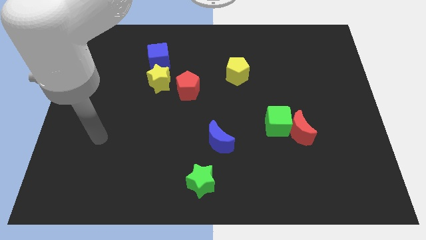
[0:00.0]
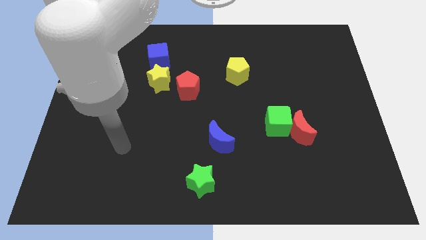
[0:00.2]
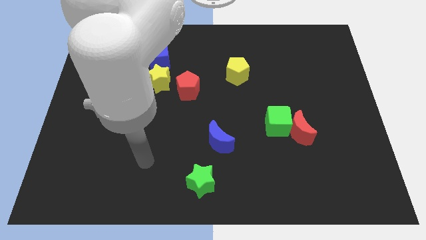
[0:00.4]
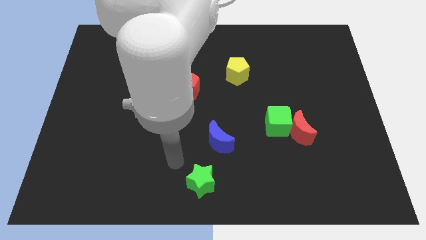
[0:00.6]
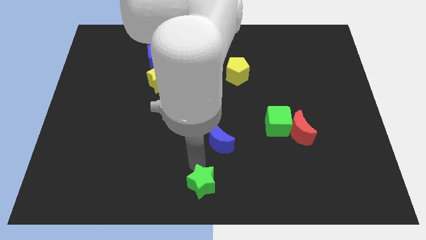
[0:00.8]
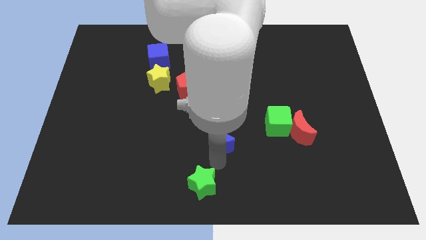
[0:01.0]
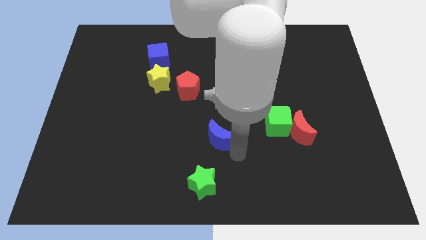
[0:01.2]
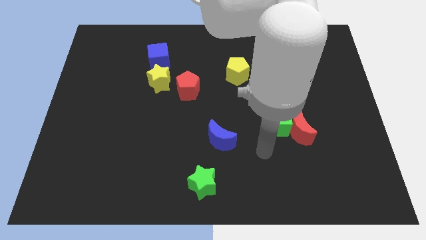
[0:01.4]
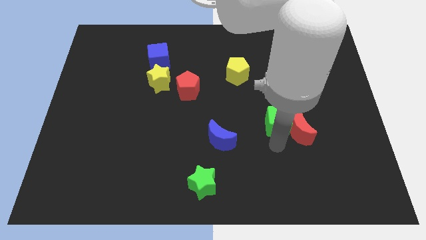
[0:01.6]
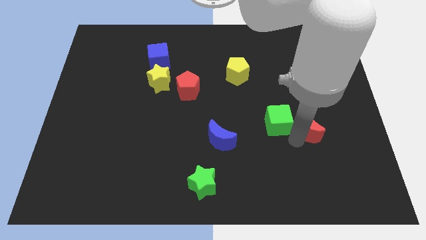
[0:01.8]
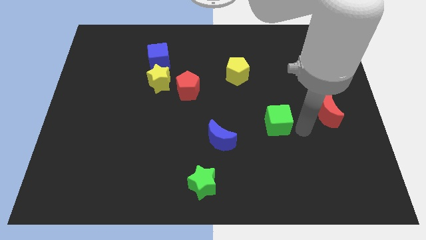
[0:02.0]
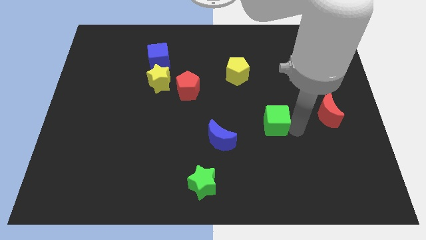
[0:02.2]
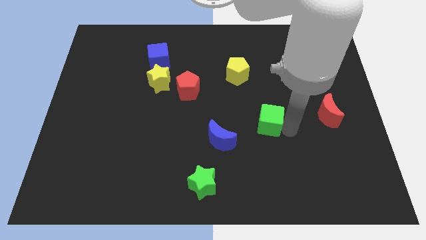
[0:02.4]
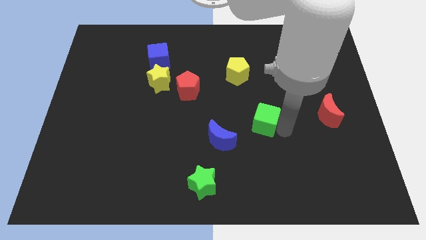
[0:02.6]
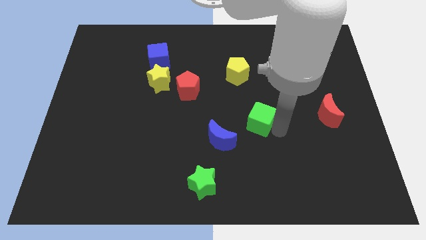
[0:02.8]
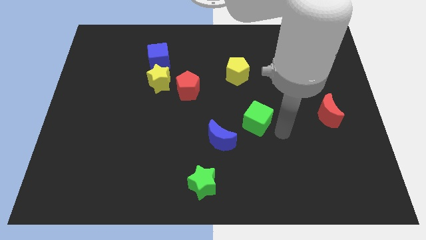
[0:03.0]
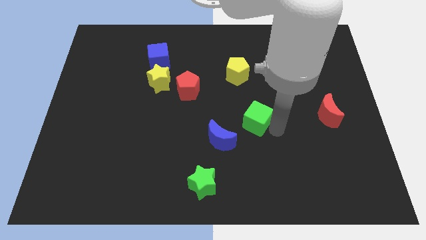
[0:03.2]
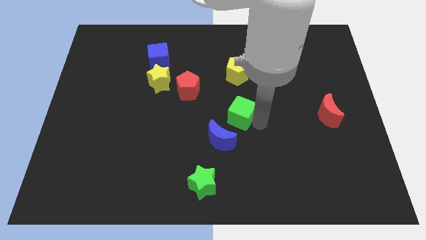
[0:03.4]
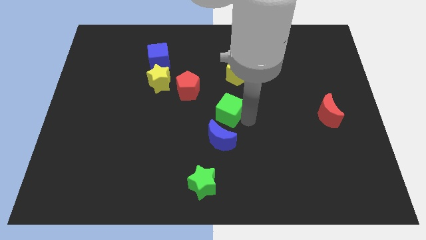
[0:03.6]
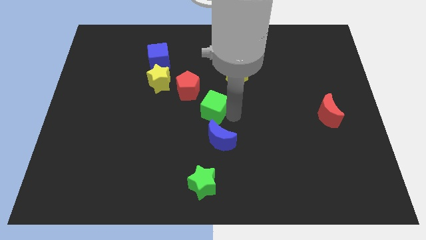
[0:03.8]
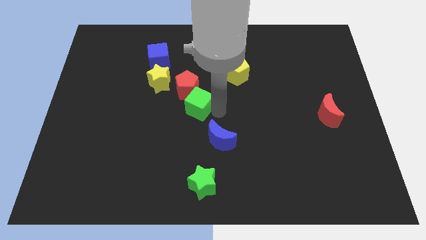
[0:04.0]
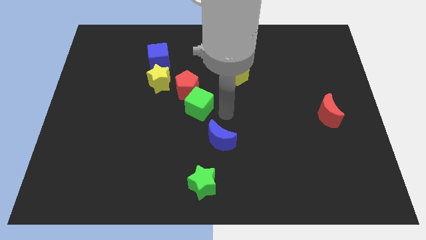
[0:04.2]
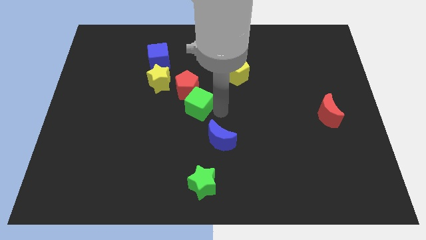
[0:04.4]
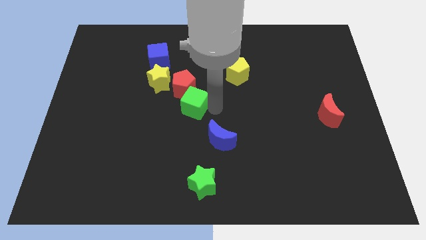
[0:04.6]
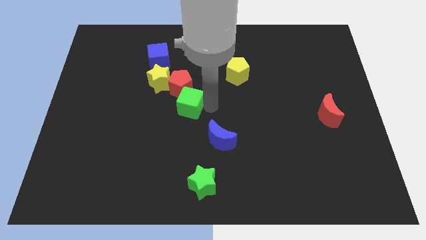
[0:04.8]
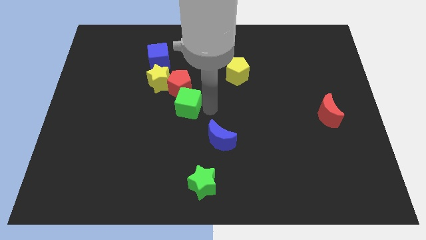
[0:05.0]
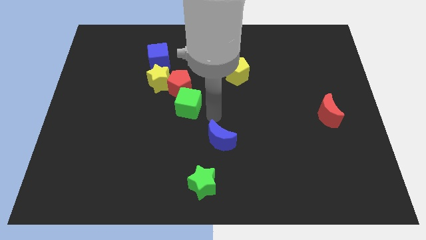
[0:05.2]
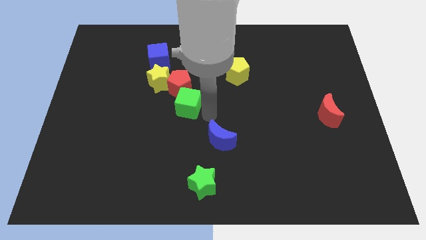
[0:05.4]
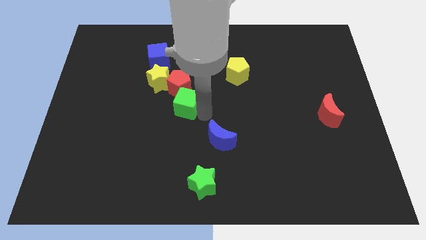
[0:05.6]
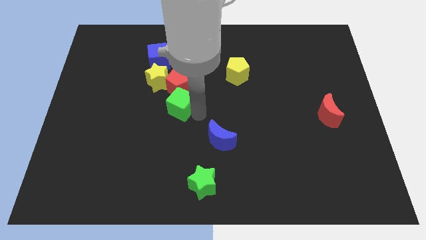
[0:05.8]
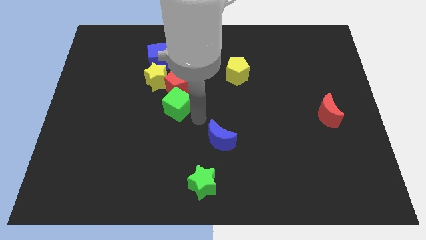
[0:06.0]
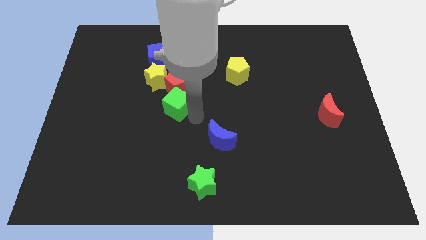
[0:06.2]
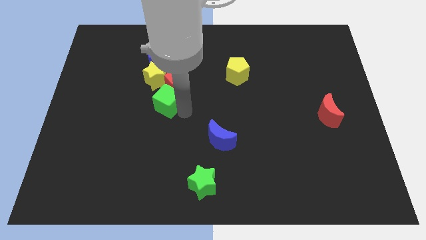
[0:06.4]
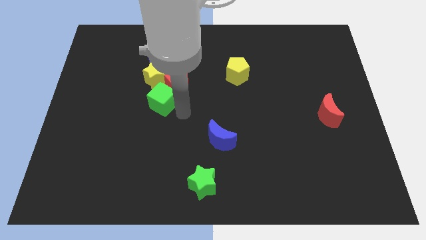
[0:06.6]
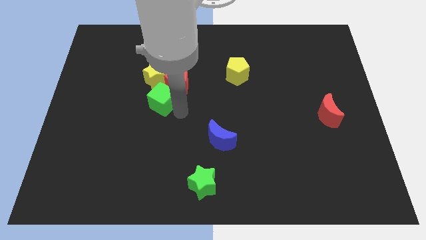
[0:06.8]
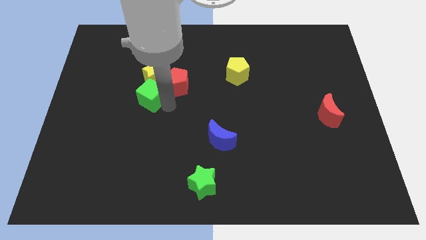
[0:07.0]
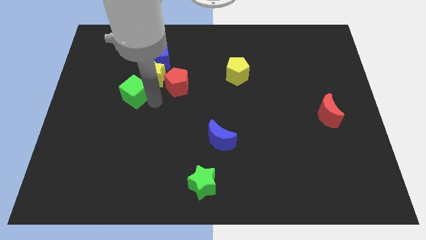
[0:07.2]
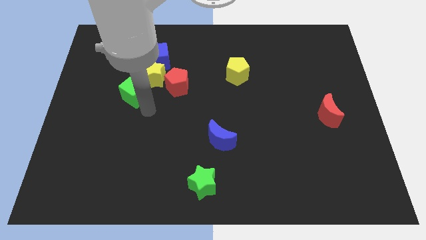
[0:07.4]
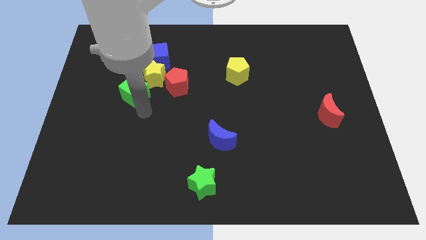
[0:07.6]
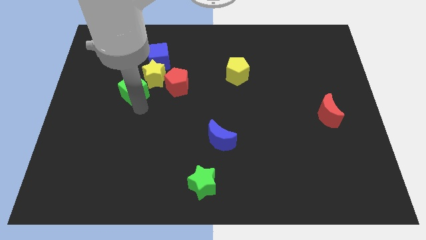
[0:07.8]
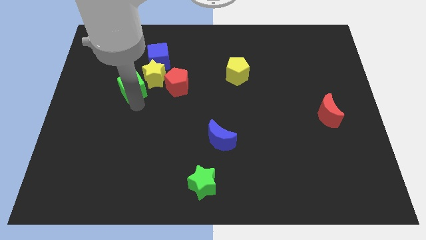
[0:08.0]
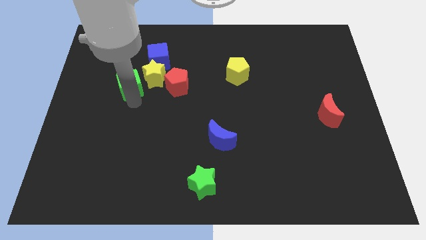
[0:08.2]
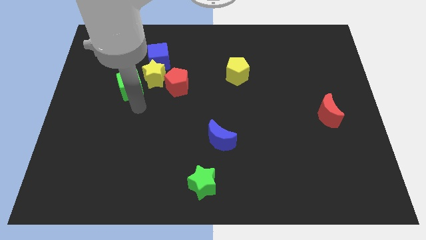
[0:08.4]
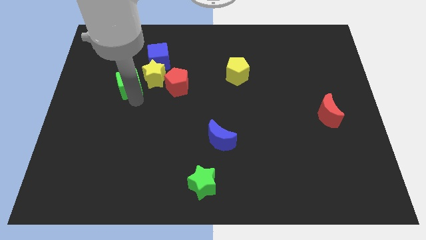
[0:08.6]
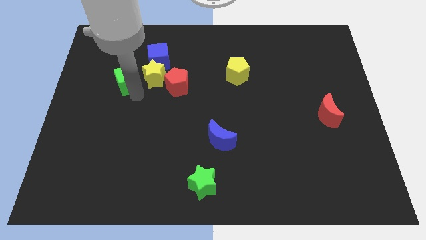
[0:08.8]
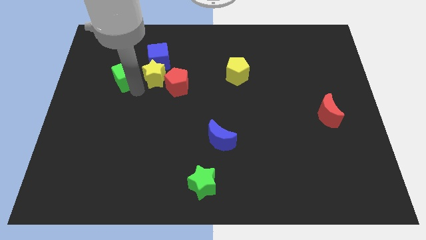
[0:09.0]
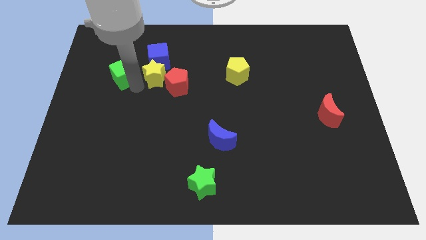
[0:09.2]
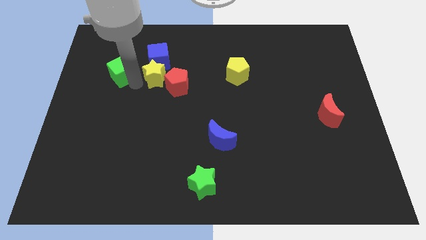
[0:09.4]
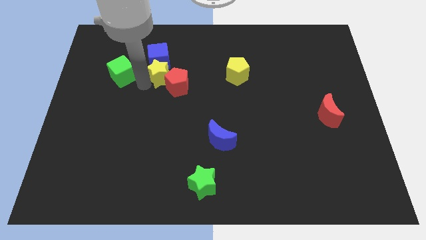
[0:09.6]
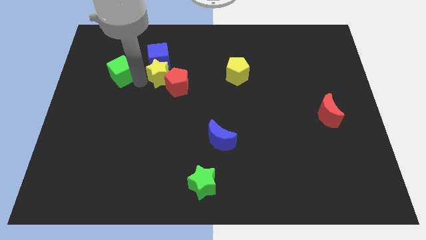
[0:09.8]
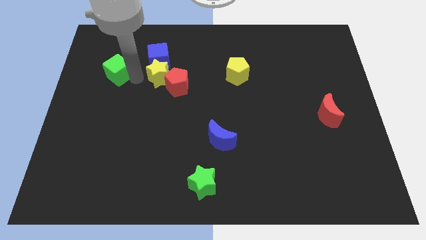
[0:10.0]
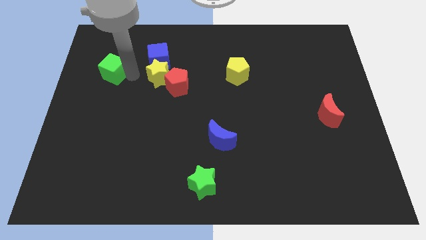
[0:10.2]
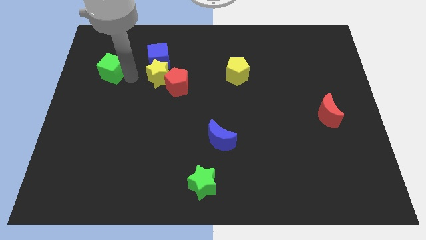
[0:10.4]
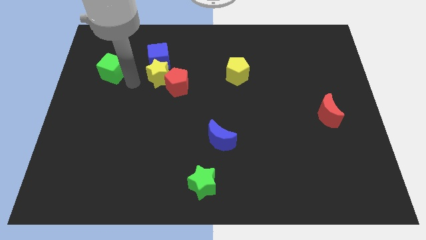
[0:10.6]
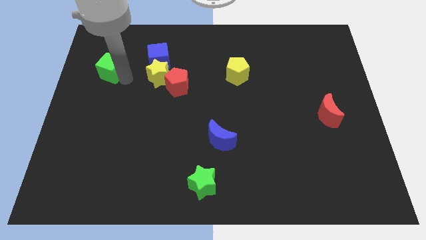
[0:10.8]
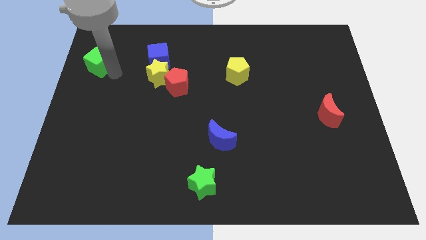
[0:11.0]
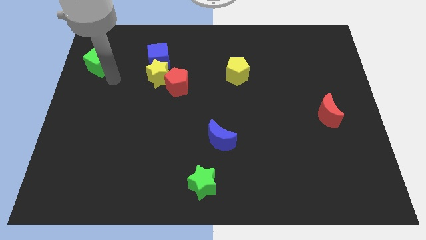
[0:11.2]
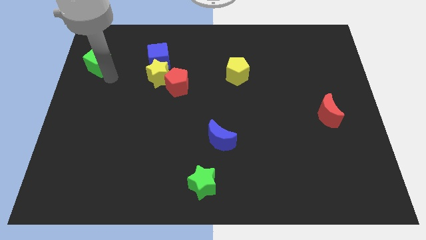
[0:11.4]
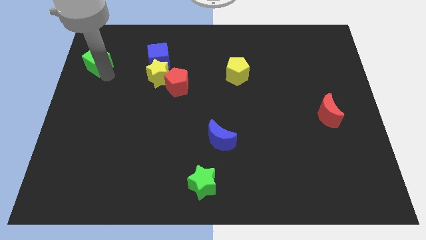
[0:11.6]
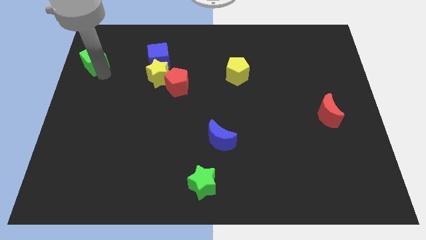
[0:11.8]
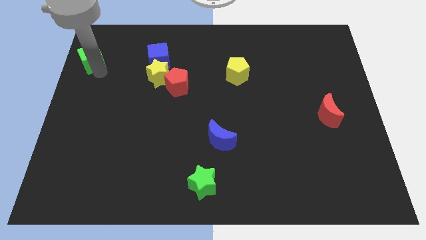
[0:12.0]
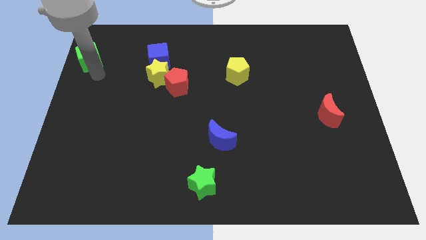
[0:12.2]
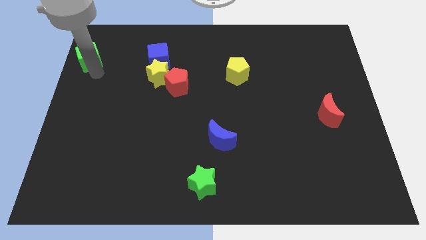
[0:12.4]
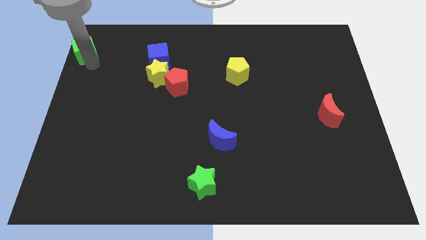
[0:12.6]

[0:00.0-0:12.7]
move the green cube to the top left corner
